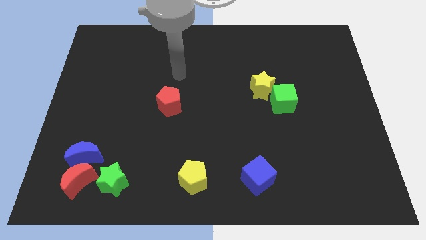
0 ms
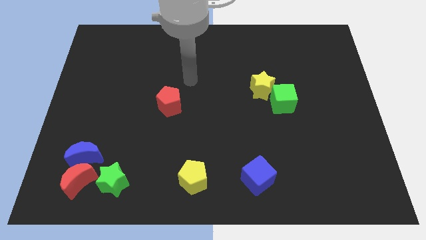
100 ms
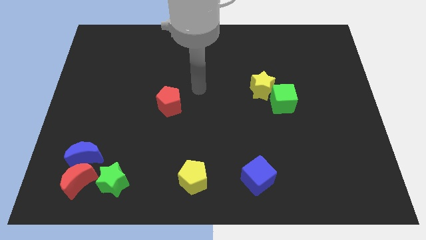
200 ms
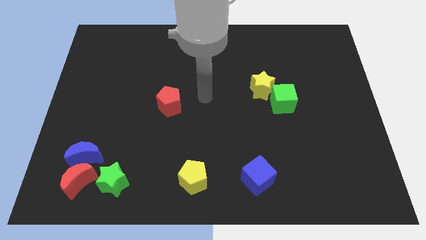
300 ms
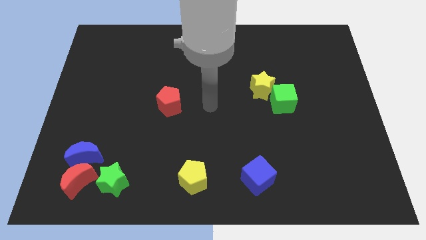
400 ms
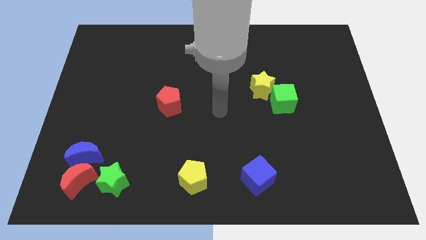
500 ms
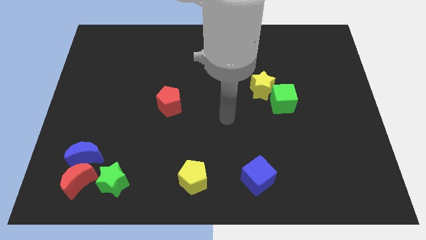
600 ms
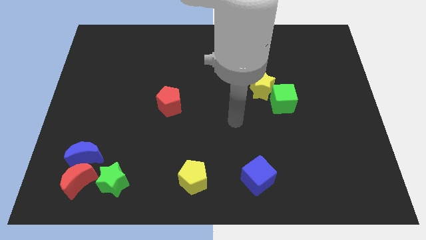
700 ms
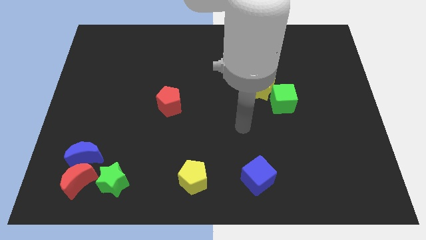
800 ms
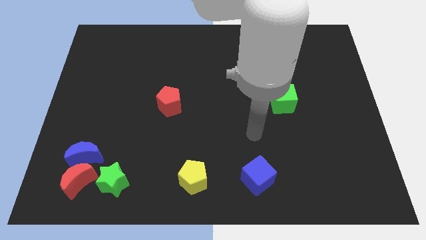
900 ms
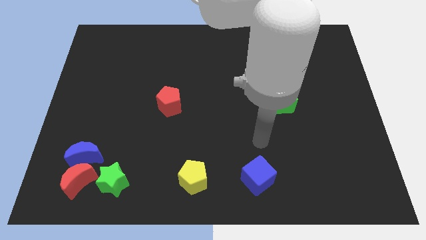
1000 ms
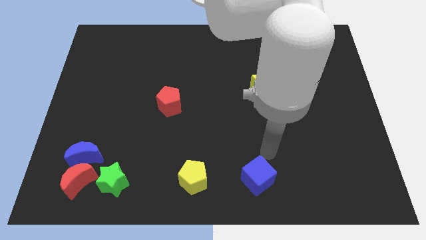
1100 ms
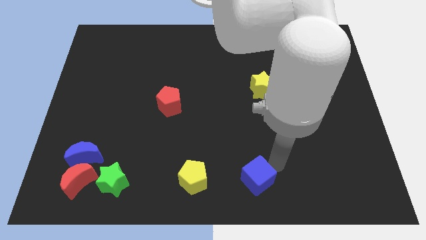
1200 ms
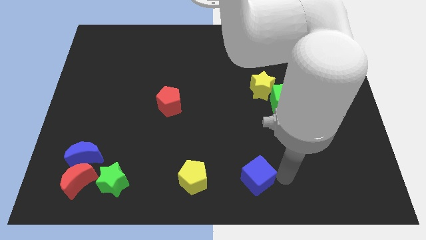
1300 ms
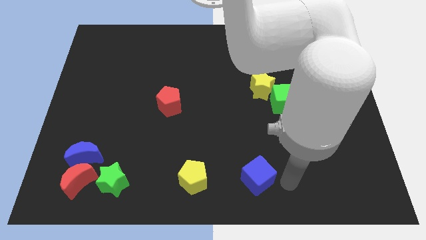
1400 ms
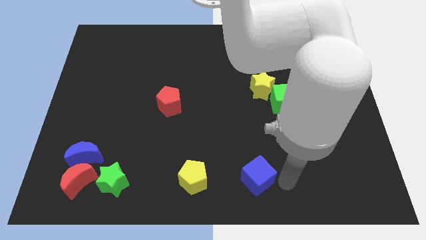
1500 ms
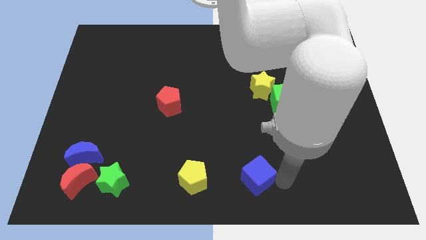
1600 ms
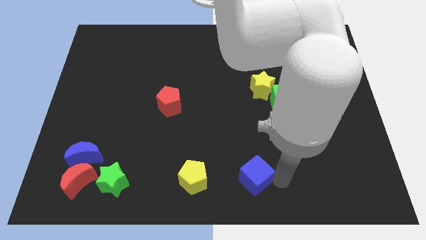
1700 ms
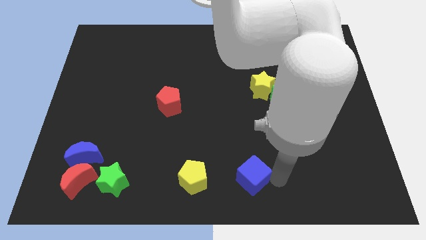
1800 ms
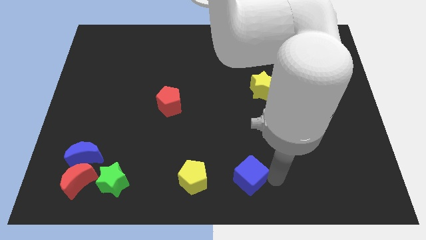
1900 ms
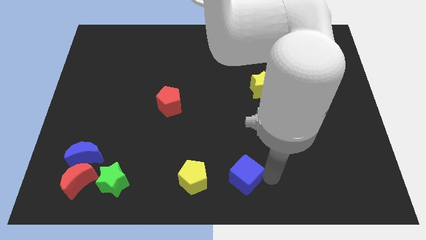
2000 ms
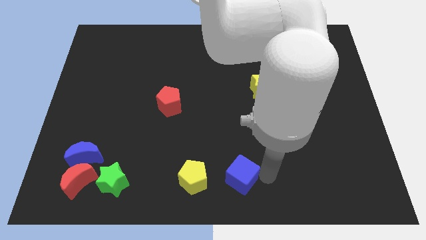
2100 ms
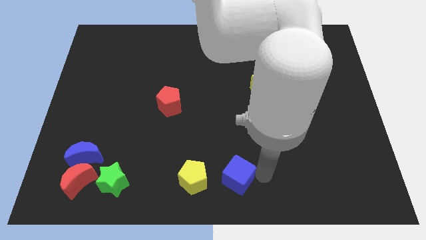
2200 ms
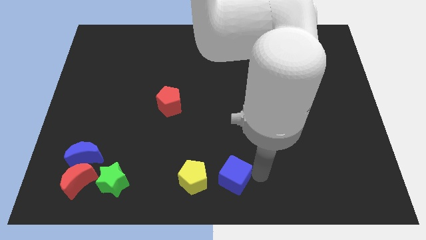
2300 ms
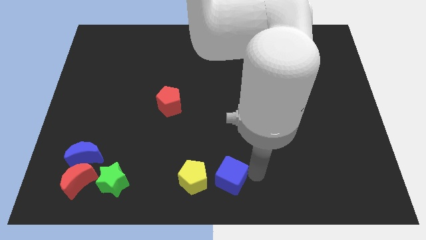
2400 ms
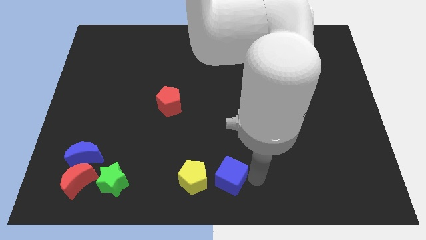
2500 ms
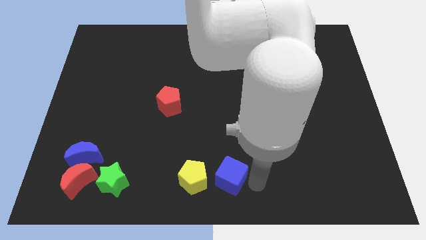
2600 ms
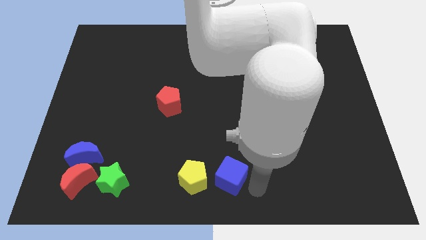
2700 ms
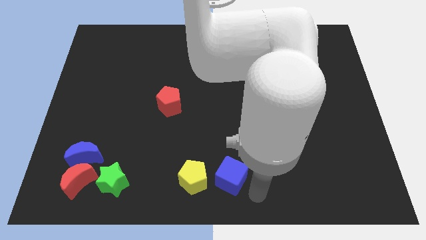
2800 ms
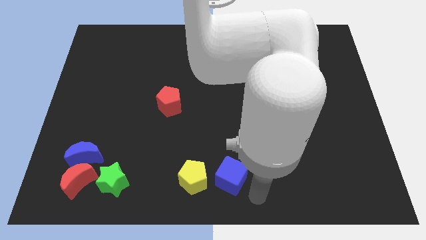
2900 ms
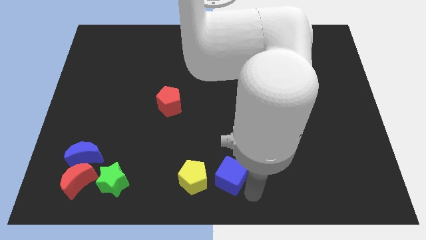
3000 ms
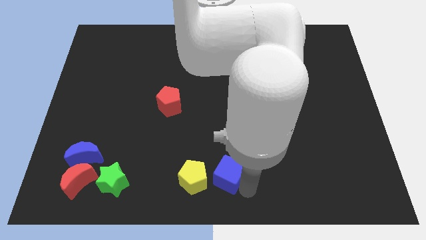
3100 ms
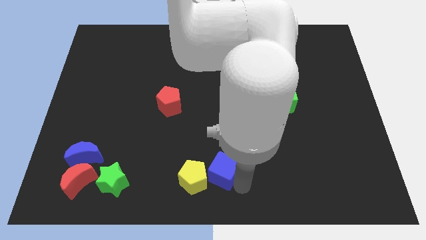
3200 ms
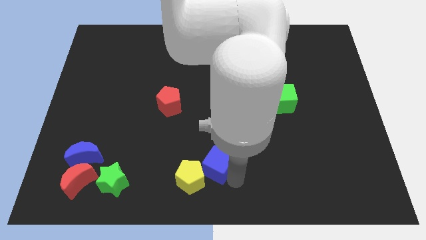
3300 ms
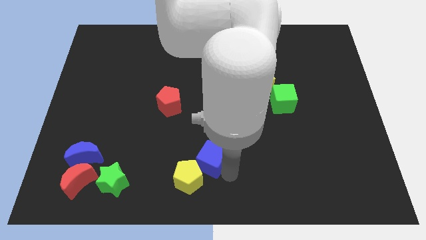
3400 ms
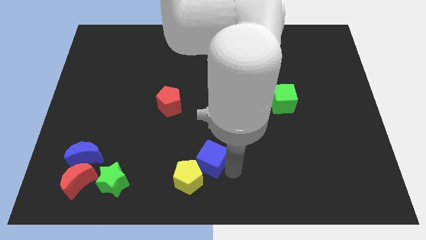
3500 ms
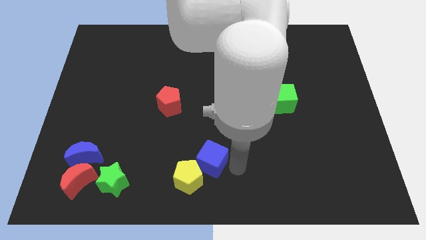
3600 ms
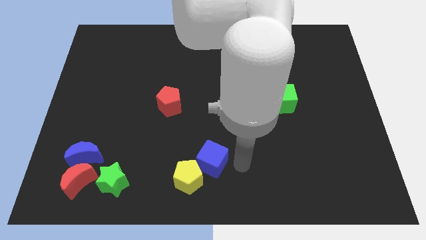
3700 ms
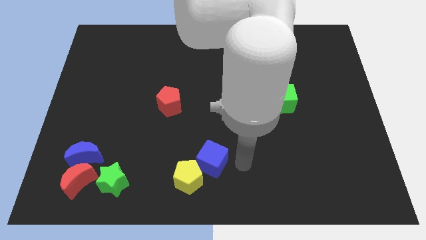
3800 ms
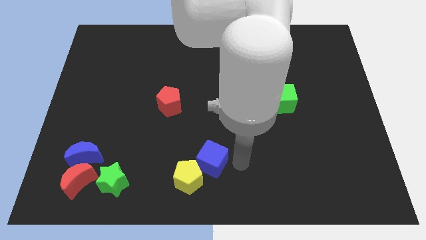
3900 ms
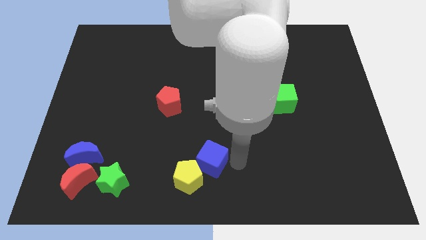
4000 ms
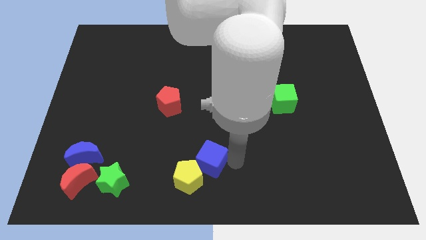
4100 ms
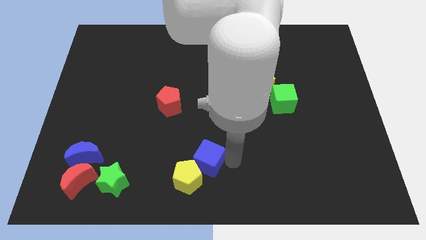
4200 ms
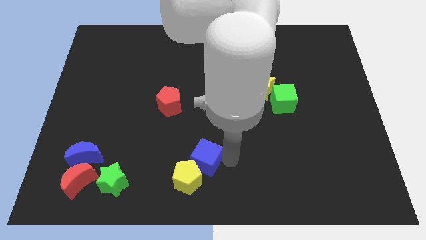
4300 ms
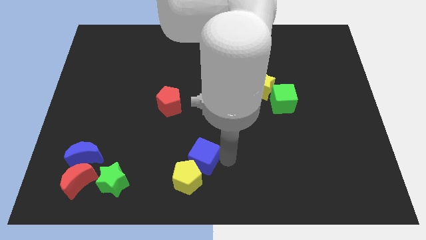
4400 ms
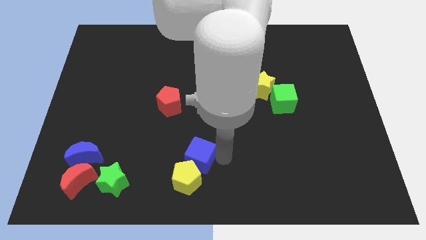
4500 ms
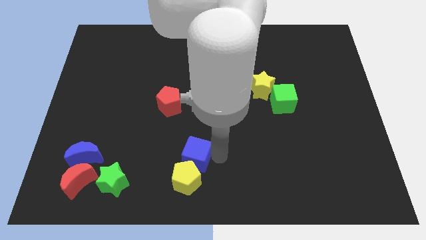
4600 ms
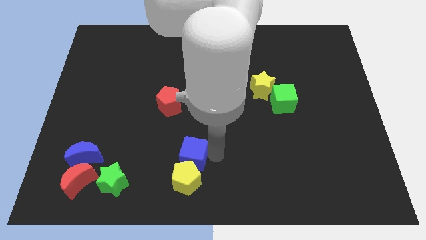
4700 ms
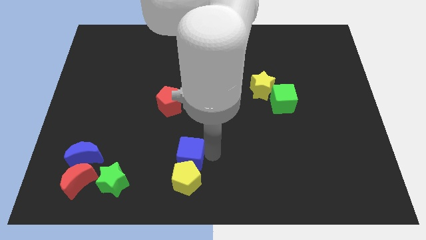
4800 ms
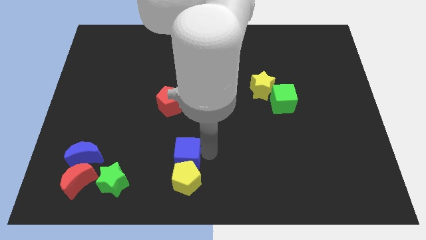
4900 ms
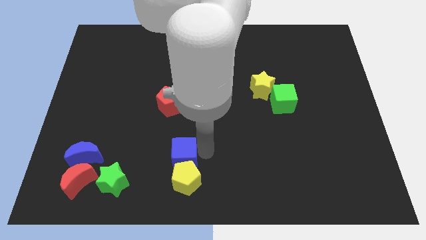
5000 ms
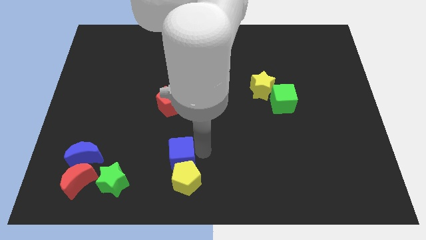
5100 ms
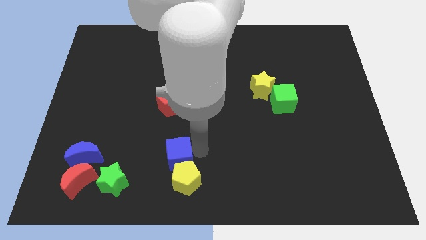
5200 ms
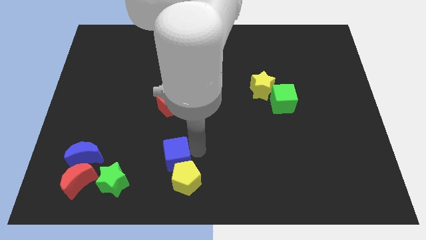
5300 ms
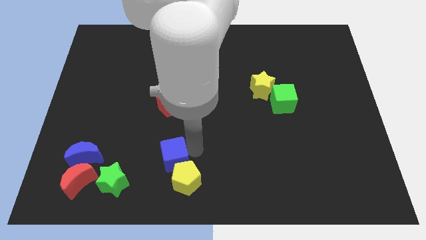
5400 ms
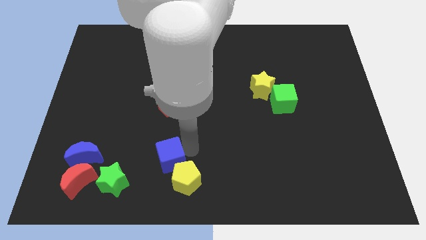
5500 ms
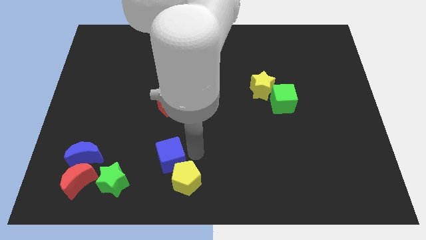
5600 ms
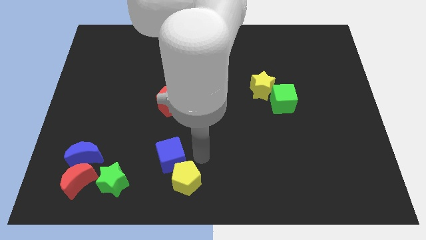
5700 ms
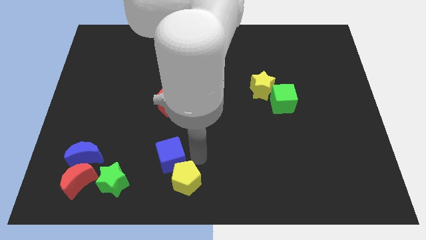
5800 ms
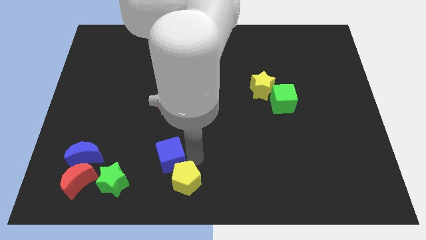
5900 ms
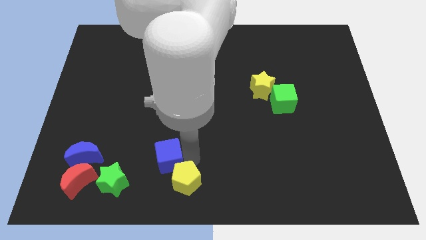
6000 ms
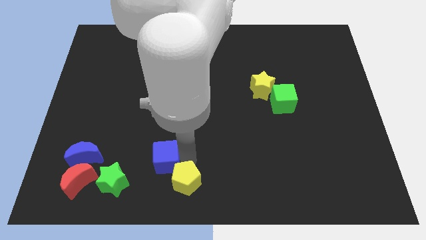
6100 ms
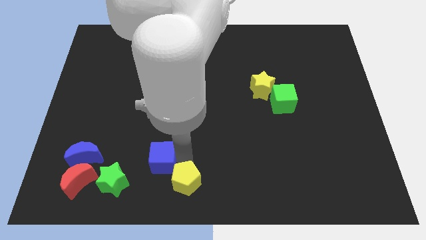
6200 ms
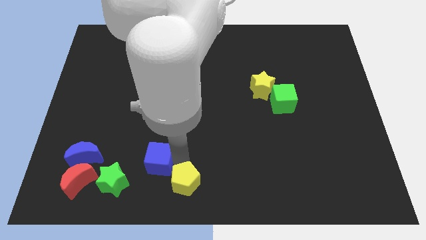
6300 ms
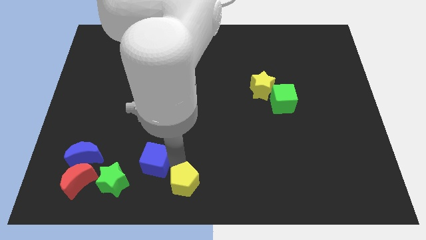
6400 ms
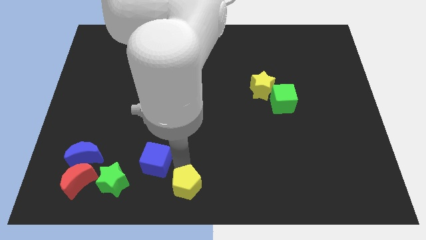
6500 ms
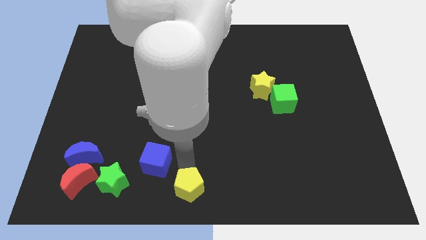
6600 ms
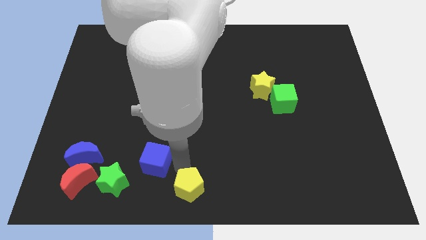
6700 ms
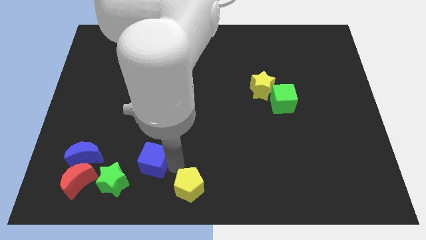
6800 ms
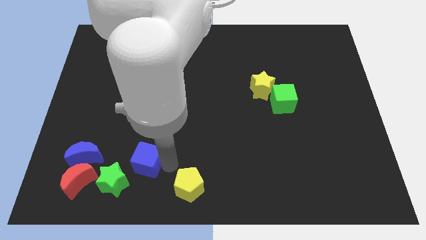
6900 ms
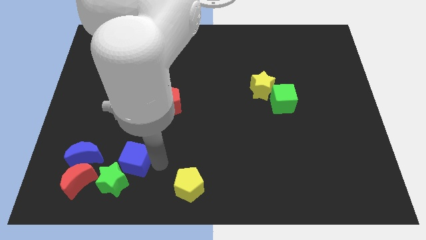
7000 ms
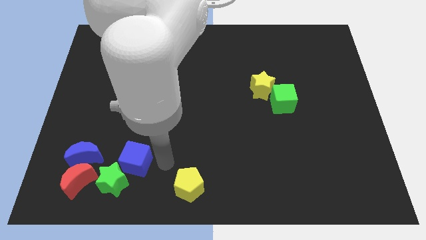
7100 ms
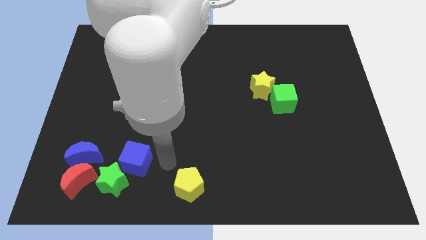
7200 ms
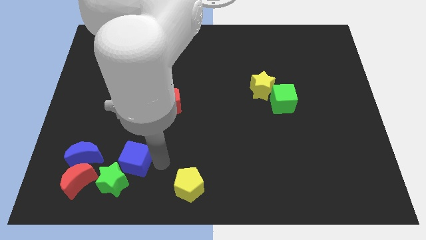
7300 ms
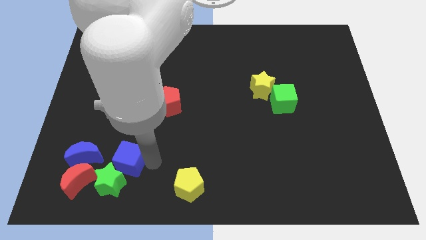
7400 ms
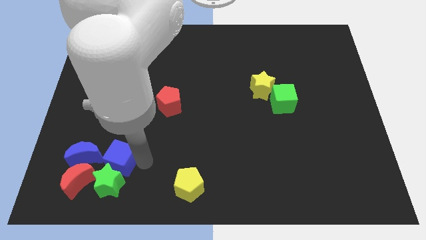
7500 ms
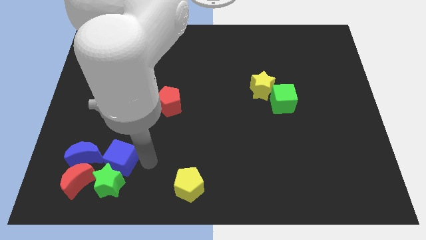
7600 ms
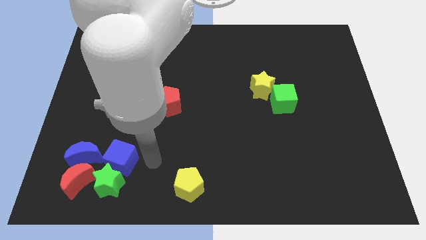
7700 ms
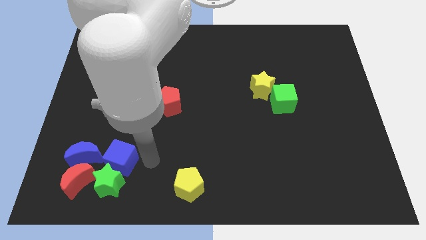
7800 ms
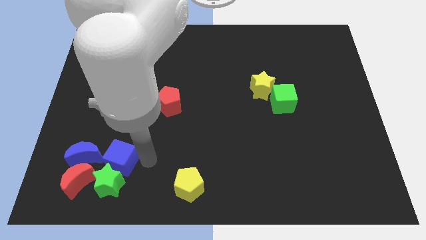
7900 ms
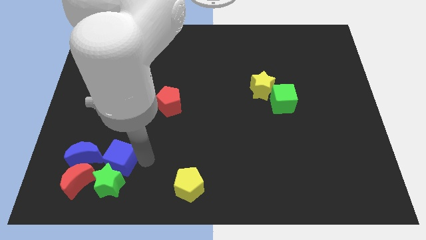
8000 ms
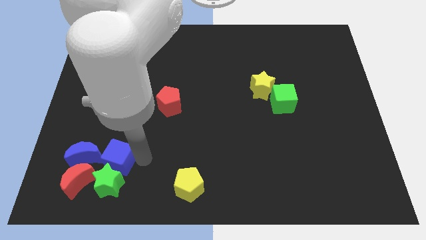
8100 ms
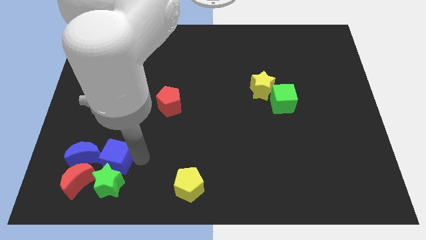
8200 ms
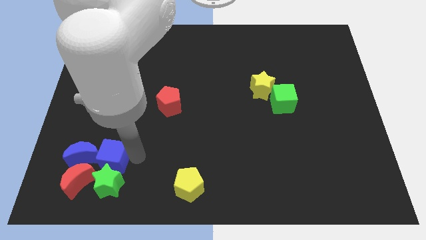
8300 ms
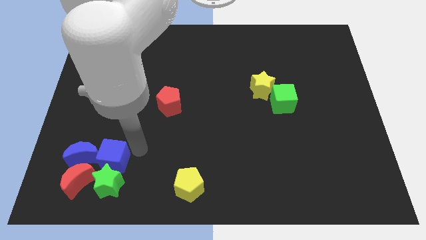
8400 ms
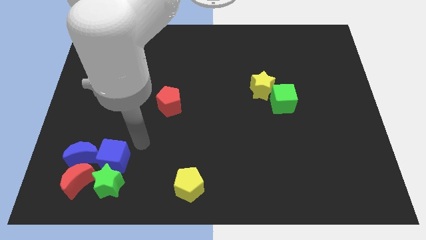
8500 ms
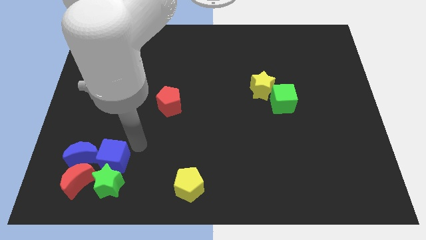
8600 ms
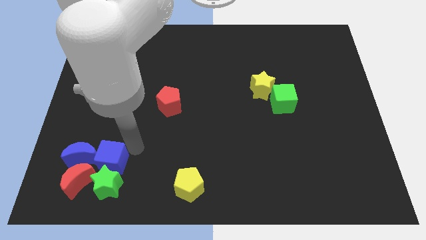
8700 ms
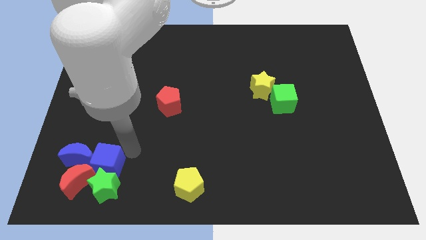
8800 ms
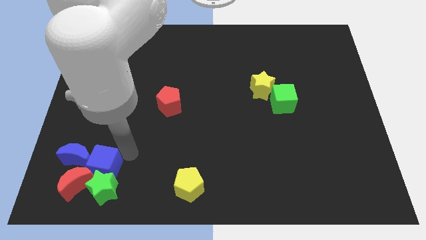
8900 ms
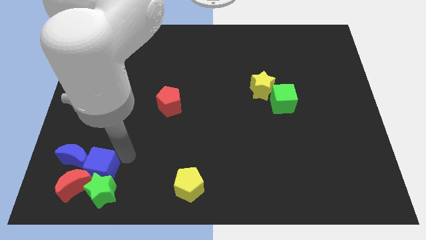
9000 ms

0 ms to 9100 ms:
push the blue cube to the red moon
